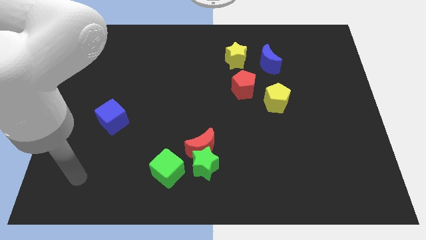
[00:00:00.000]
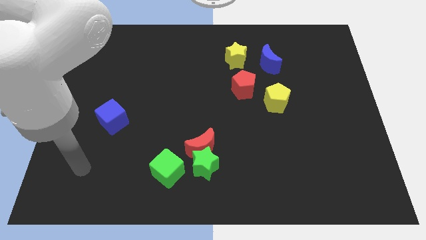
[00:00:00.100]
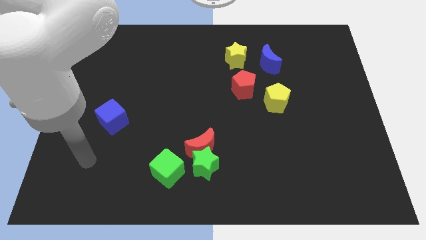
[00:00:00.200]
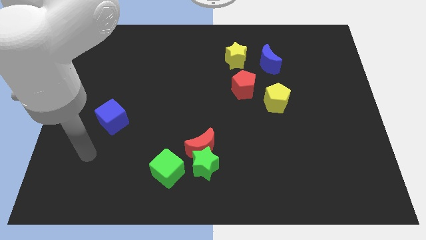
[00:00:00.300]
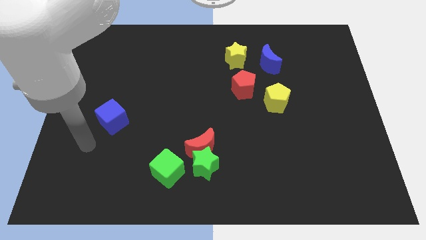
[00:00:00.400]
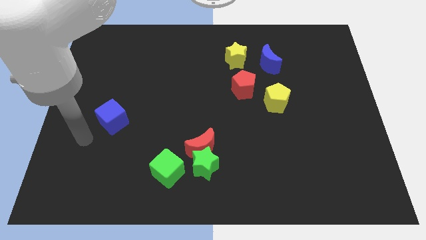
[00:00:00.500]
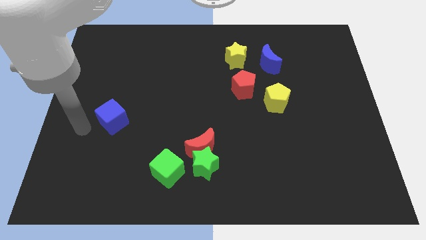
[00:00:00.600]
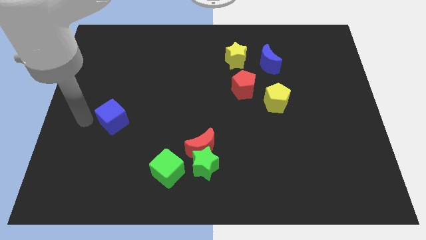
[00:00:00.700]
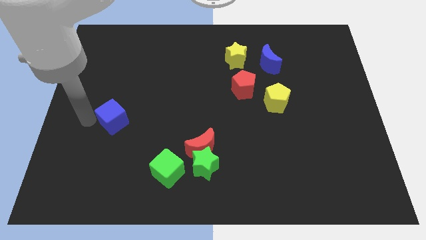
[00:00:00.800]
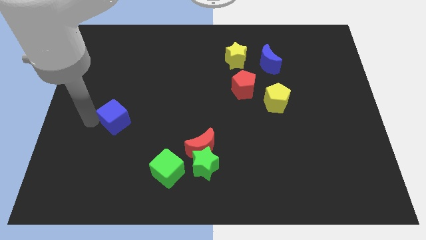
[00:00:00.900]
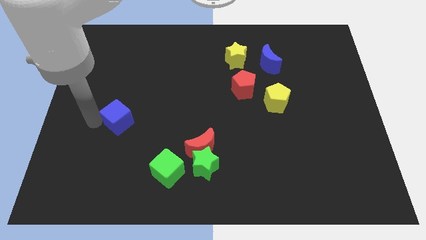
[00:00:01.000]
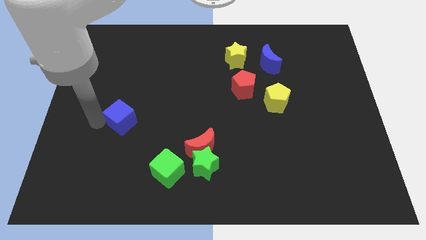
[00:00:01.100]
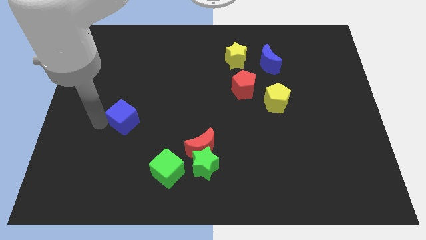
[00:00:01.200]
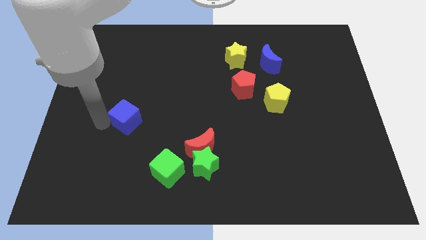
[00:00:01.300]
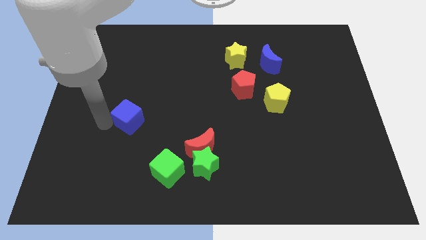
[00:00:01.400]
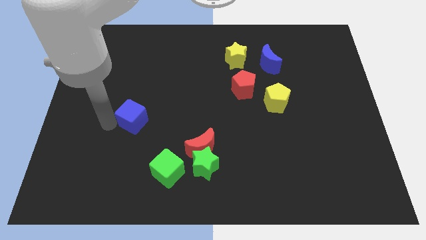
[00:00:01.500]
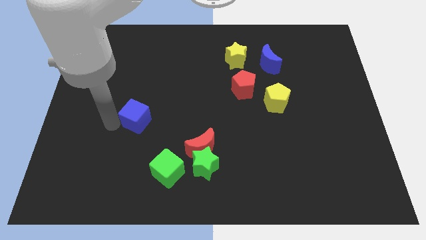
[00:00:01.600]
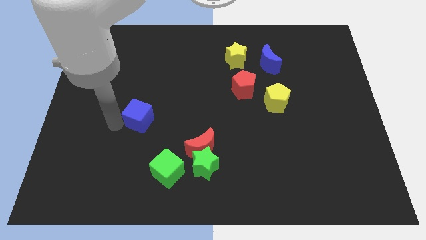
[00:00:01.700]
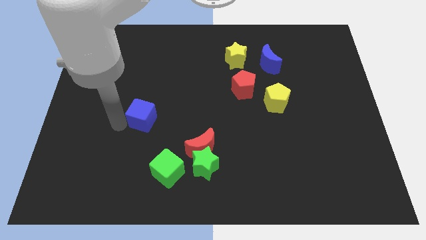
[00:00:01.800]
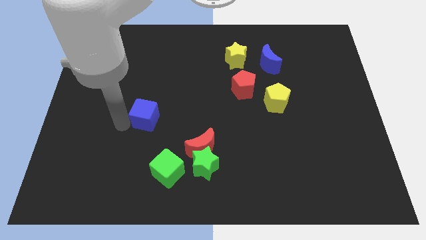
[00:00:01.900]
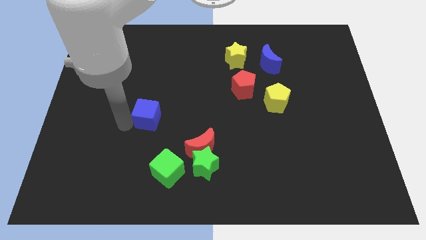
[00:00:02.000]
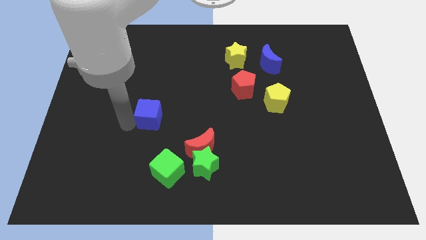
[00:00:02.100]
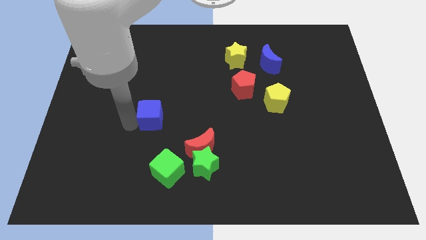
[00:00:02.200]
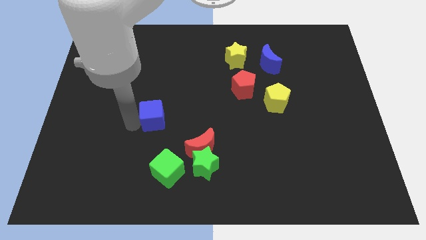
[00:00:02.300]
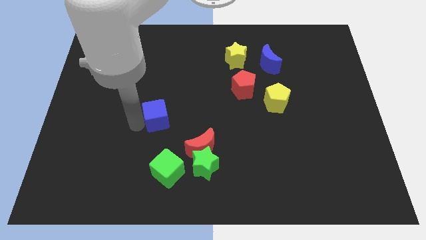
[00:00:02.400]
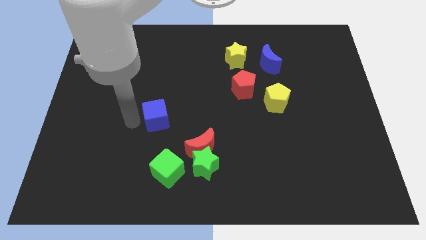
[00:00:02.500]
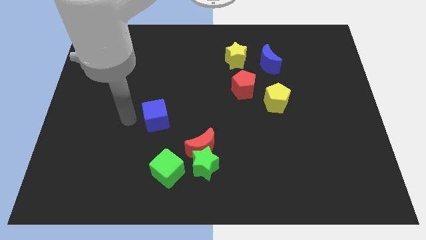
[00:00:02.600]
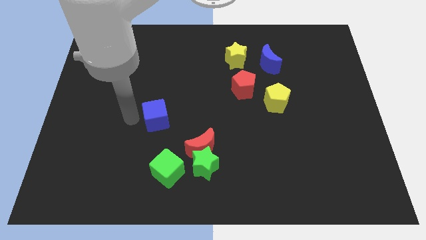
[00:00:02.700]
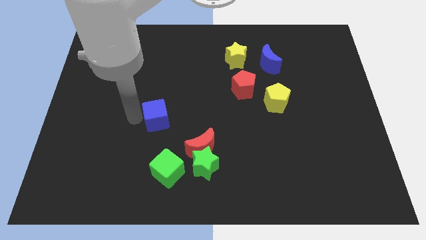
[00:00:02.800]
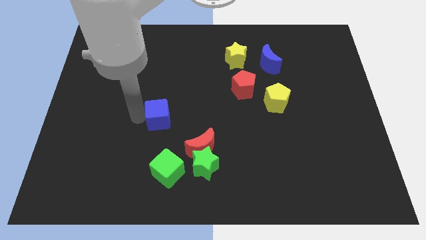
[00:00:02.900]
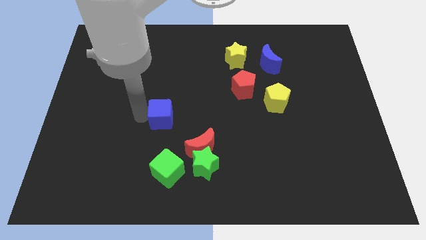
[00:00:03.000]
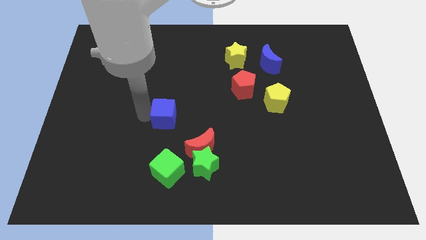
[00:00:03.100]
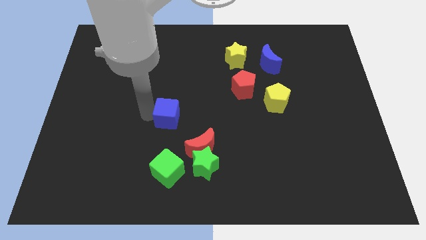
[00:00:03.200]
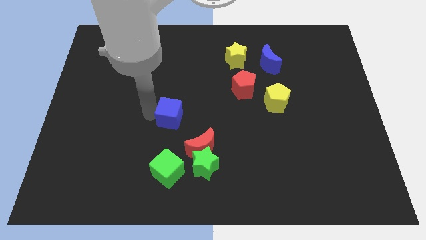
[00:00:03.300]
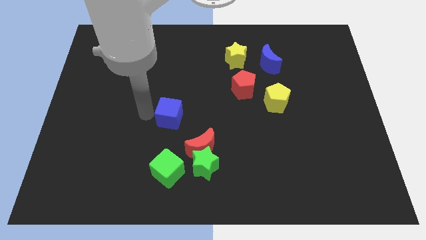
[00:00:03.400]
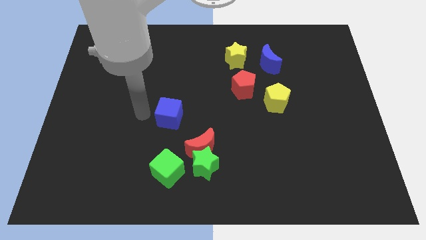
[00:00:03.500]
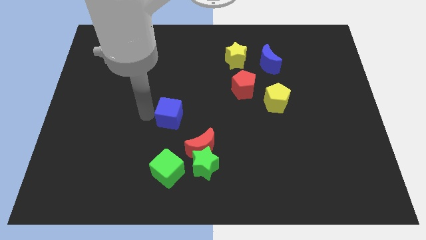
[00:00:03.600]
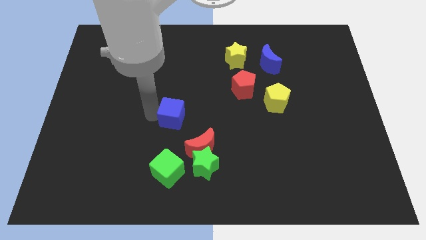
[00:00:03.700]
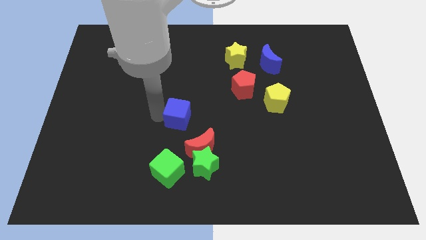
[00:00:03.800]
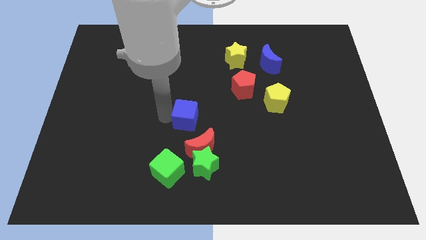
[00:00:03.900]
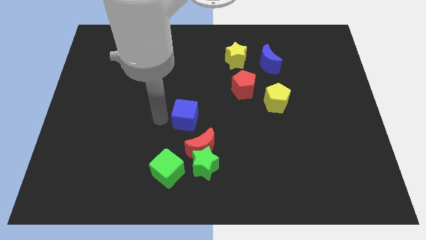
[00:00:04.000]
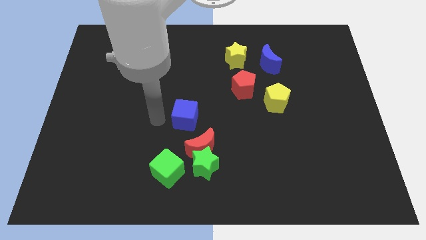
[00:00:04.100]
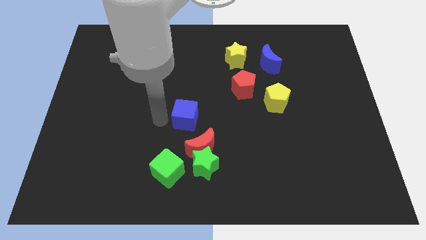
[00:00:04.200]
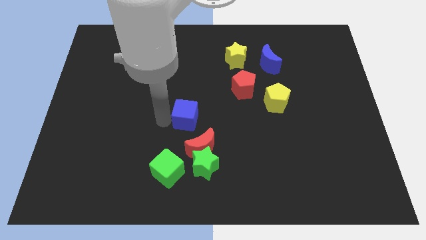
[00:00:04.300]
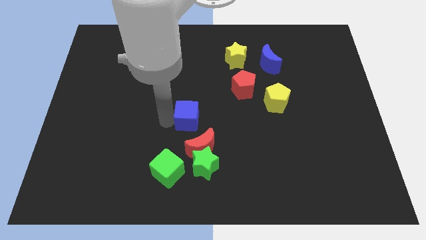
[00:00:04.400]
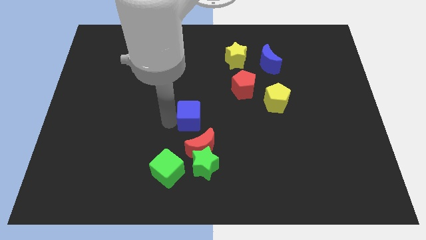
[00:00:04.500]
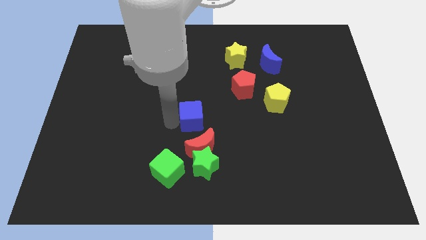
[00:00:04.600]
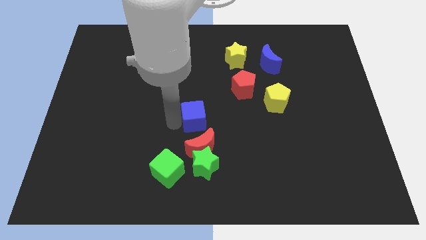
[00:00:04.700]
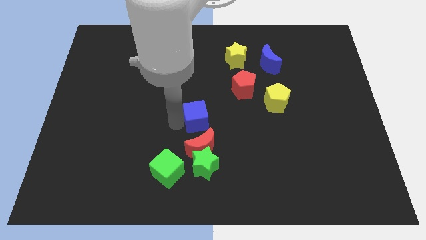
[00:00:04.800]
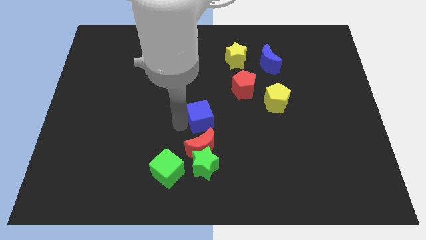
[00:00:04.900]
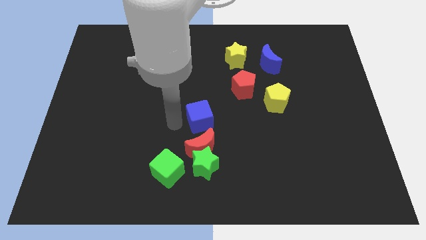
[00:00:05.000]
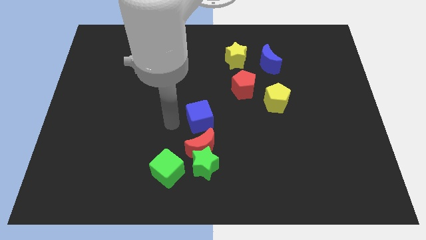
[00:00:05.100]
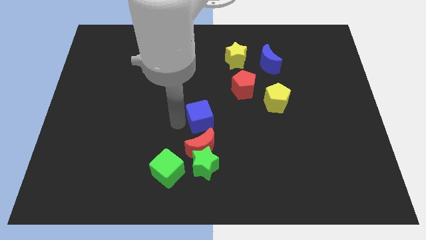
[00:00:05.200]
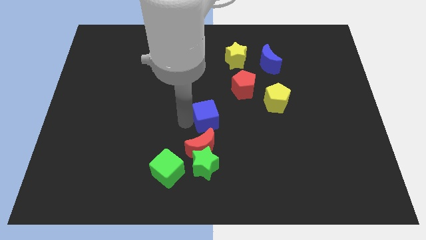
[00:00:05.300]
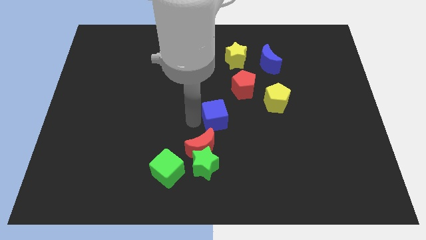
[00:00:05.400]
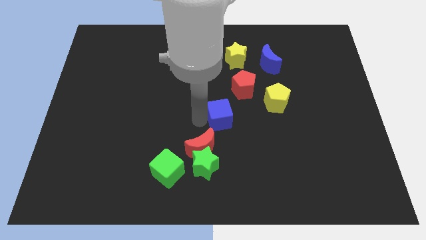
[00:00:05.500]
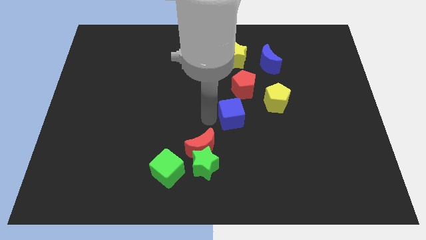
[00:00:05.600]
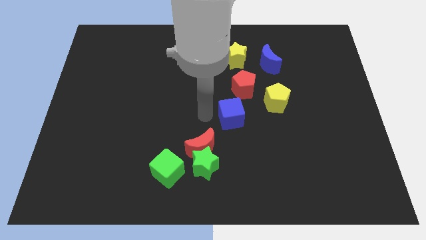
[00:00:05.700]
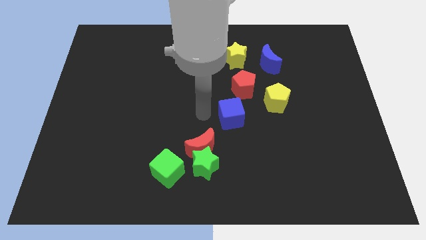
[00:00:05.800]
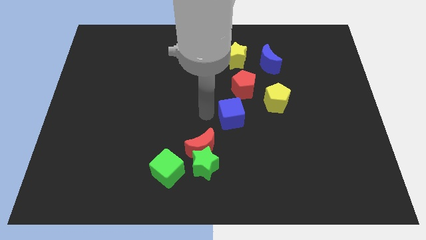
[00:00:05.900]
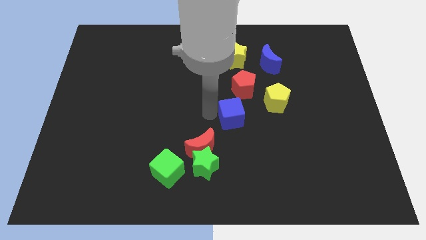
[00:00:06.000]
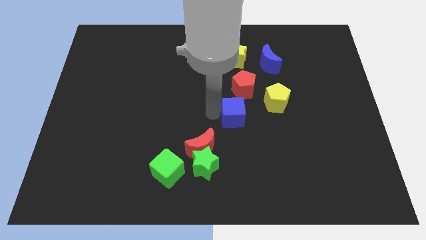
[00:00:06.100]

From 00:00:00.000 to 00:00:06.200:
move the blue cube to the bottom left side of the yellow pentagon

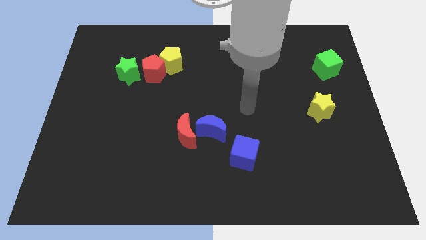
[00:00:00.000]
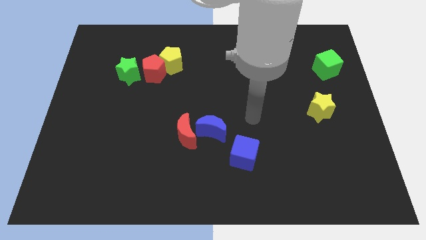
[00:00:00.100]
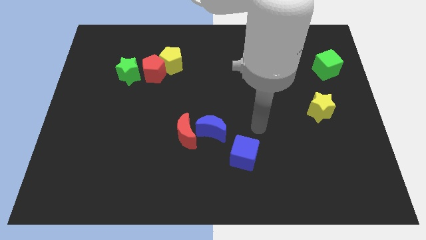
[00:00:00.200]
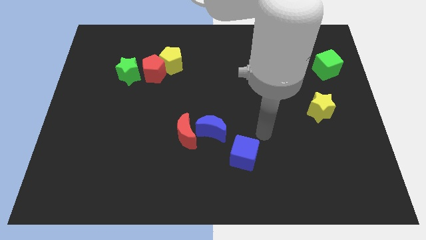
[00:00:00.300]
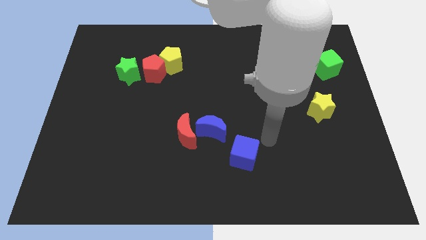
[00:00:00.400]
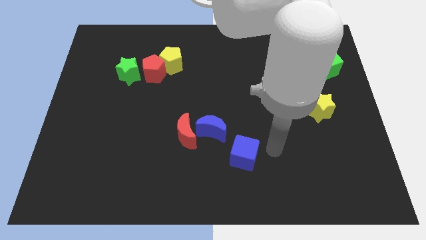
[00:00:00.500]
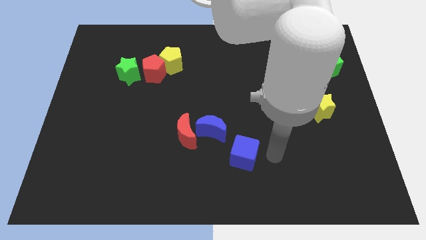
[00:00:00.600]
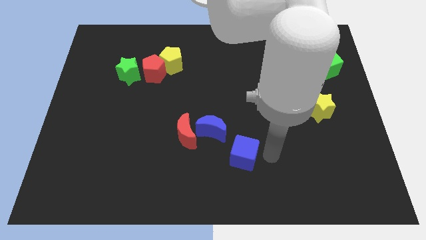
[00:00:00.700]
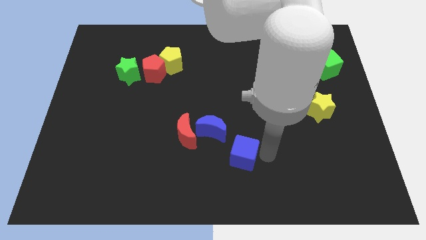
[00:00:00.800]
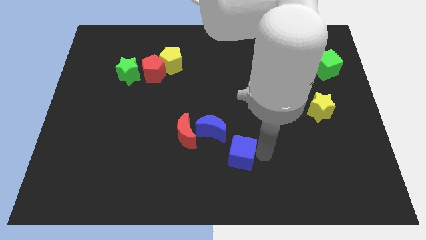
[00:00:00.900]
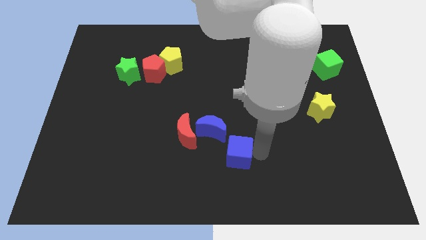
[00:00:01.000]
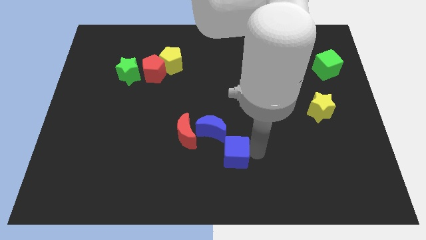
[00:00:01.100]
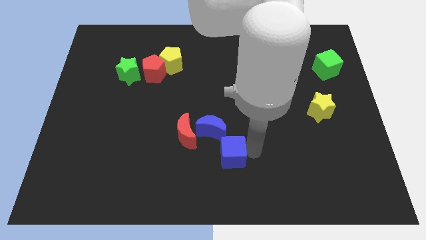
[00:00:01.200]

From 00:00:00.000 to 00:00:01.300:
move the blue cube to the bottom right of the red moon
